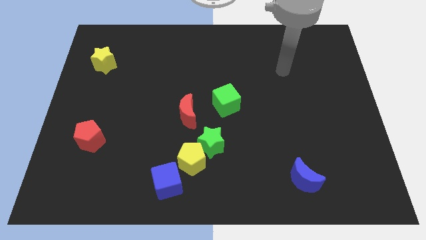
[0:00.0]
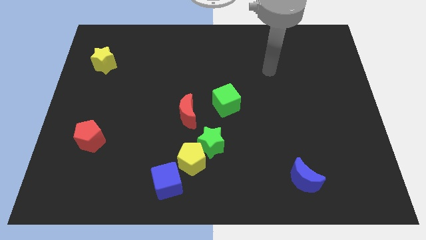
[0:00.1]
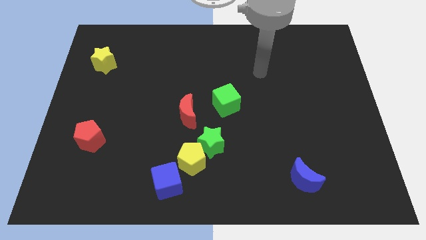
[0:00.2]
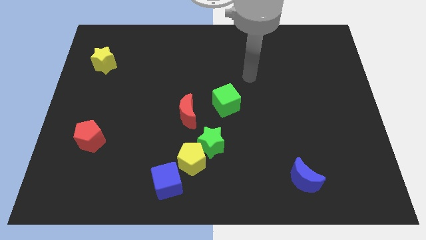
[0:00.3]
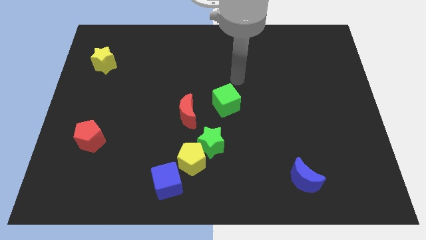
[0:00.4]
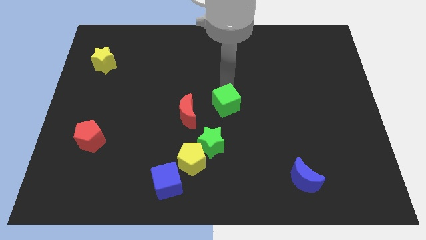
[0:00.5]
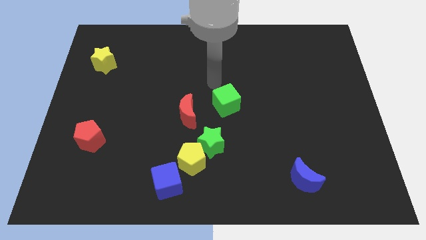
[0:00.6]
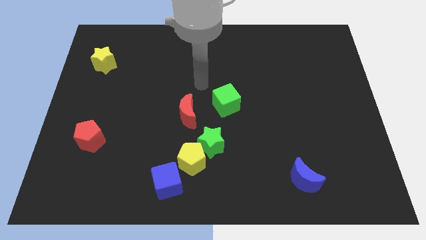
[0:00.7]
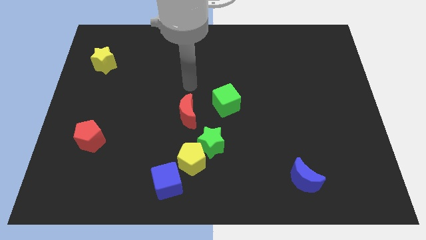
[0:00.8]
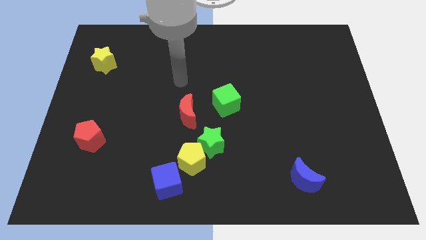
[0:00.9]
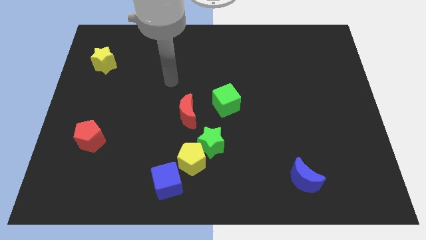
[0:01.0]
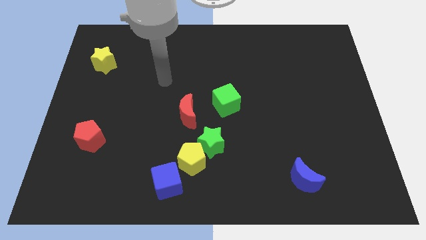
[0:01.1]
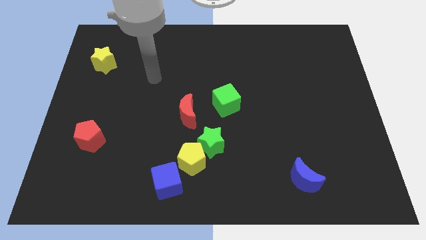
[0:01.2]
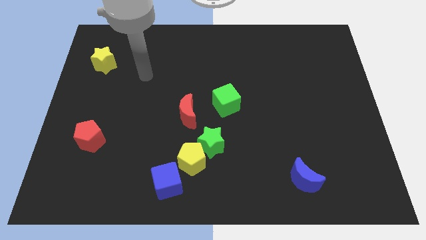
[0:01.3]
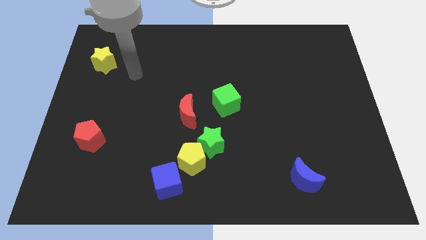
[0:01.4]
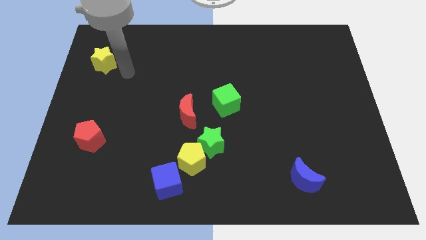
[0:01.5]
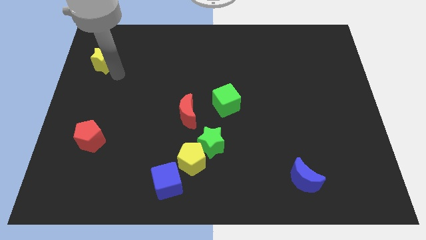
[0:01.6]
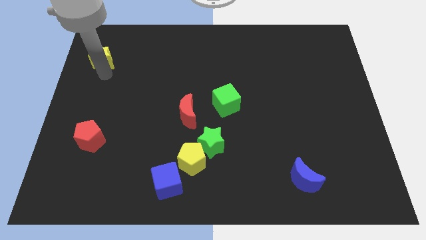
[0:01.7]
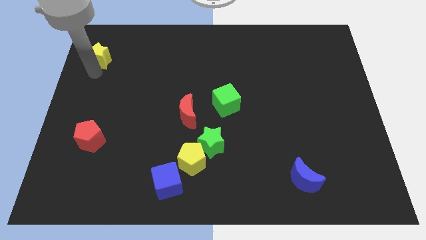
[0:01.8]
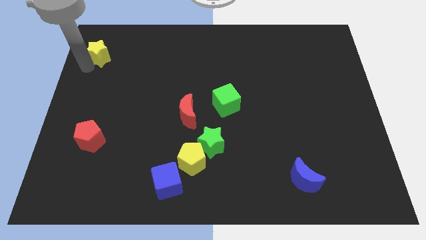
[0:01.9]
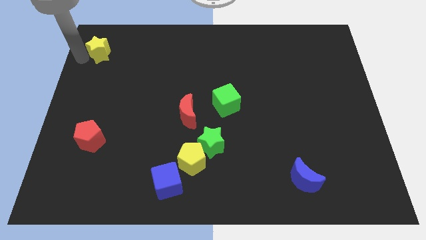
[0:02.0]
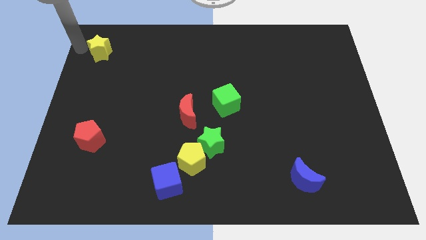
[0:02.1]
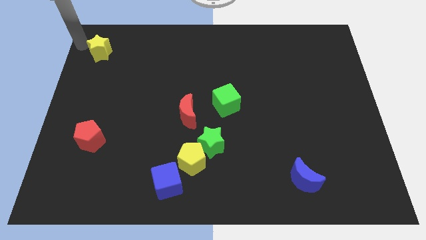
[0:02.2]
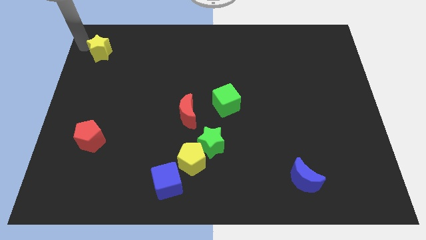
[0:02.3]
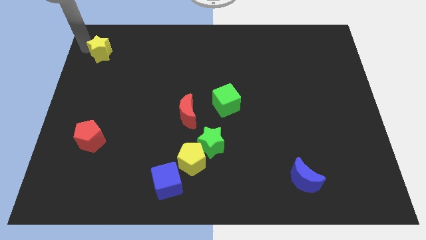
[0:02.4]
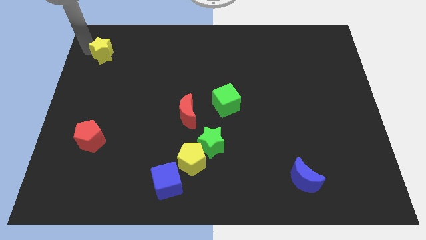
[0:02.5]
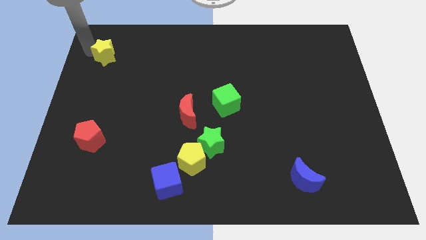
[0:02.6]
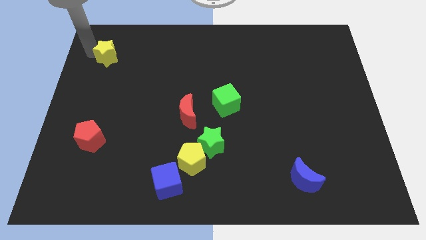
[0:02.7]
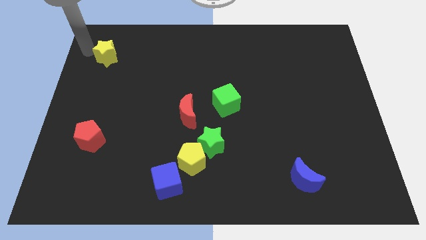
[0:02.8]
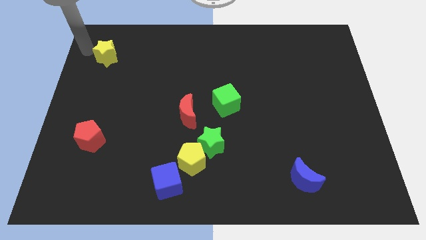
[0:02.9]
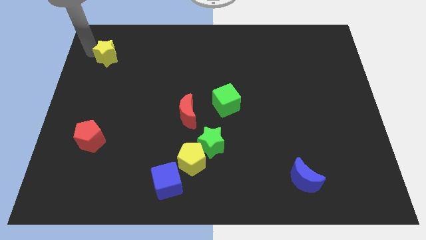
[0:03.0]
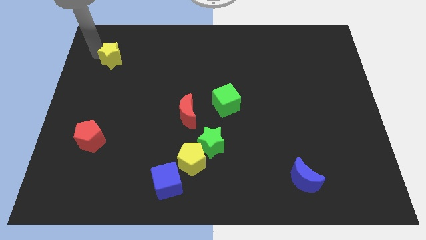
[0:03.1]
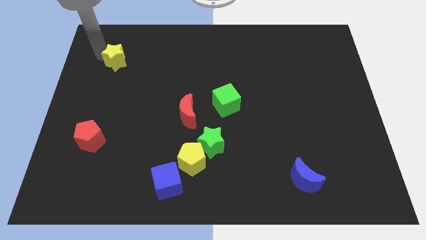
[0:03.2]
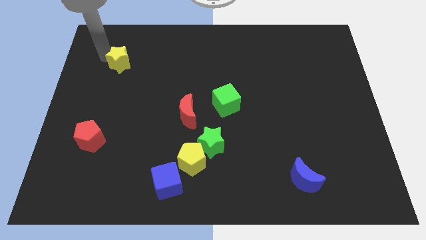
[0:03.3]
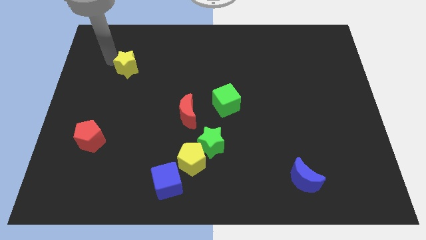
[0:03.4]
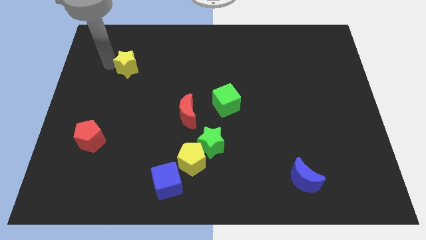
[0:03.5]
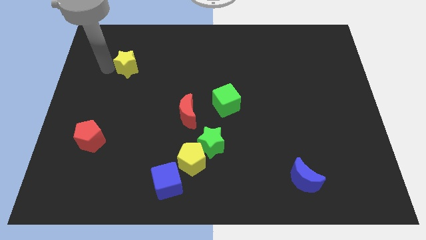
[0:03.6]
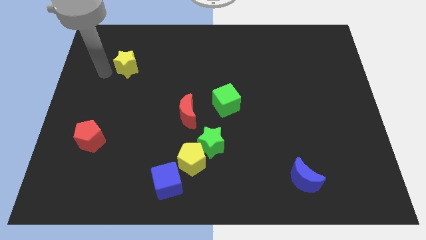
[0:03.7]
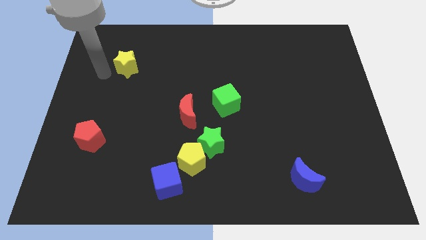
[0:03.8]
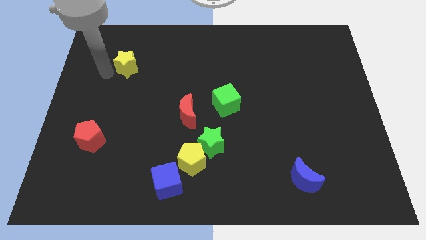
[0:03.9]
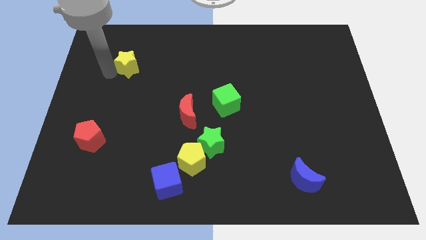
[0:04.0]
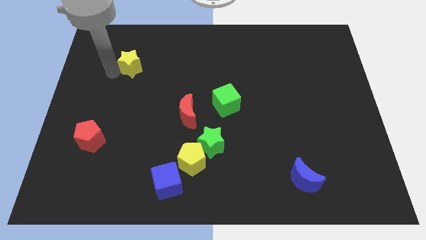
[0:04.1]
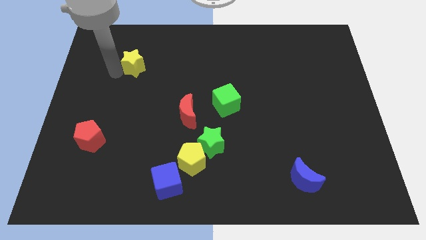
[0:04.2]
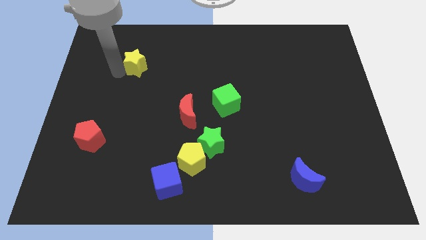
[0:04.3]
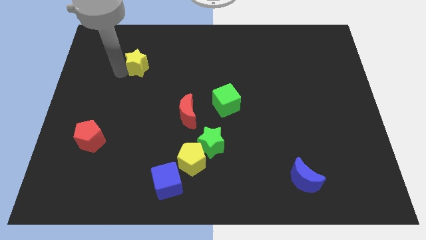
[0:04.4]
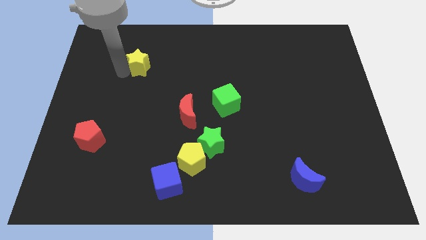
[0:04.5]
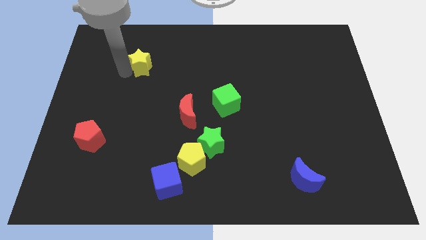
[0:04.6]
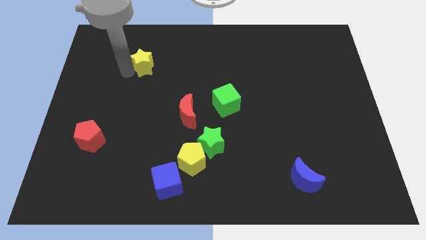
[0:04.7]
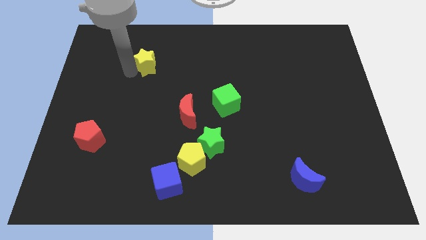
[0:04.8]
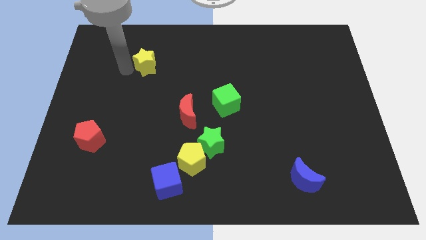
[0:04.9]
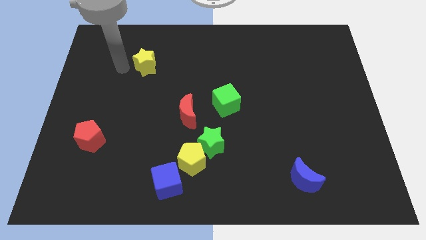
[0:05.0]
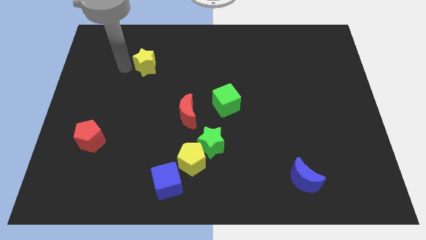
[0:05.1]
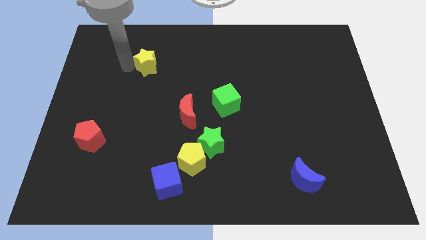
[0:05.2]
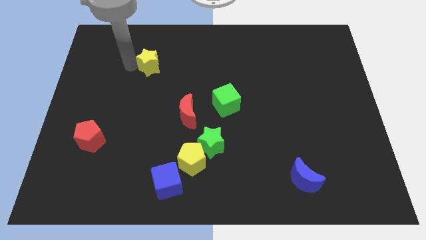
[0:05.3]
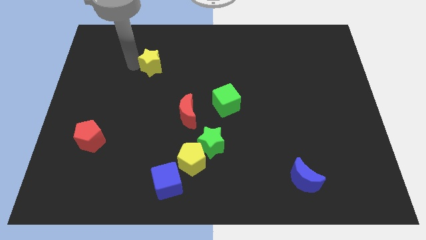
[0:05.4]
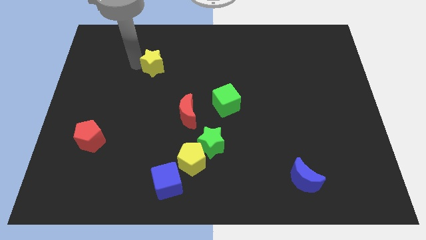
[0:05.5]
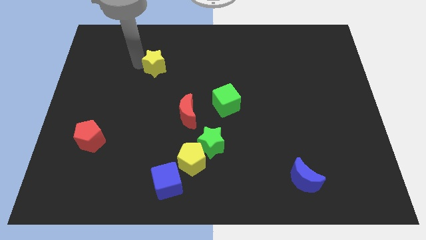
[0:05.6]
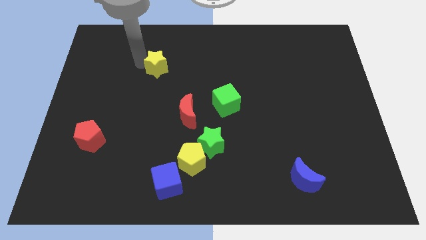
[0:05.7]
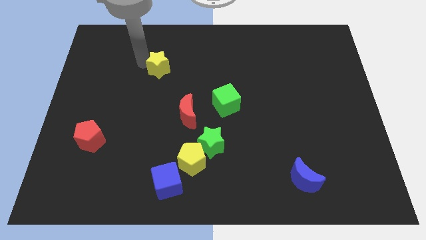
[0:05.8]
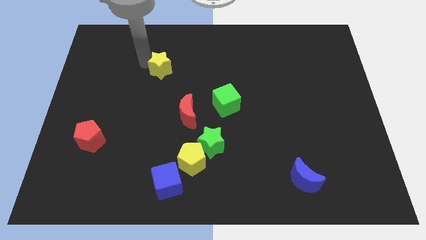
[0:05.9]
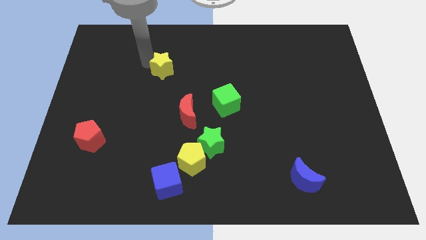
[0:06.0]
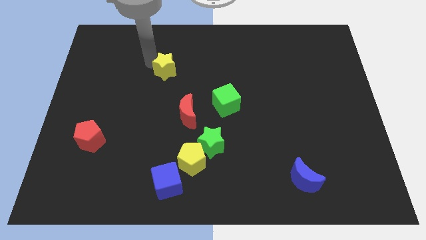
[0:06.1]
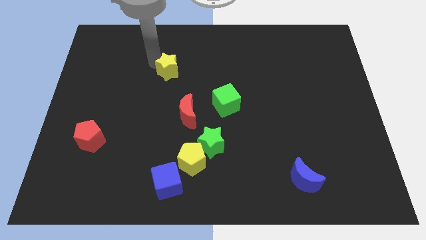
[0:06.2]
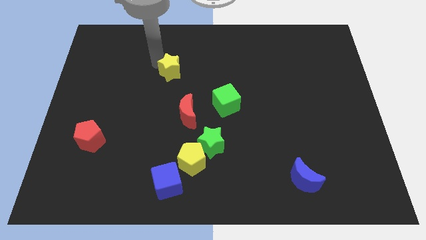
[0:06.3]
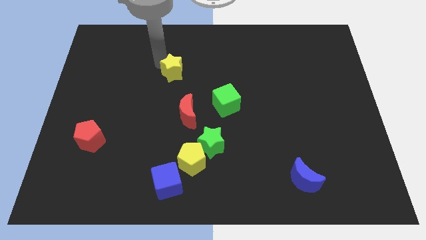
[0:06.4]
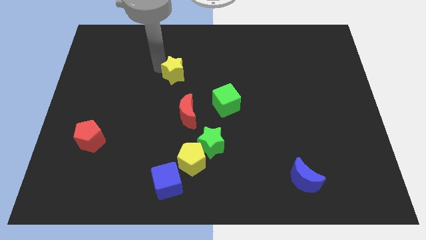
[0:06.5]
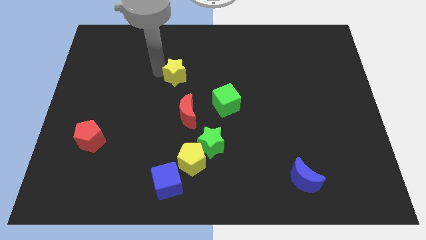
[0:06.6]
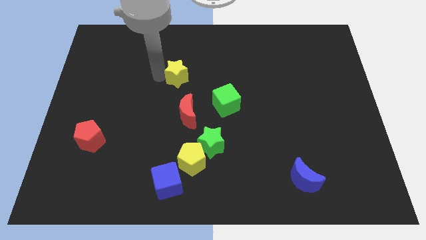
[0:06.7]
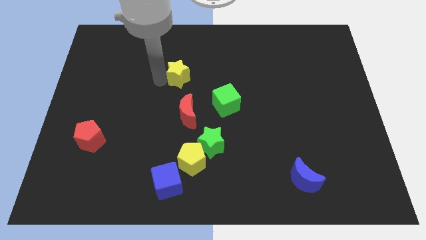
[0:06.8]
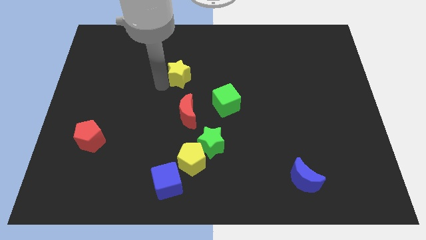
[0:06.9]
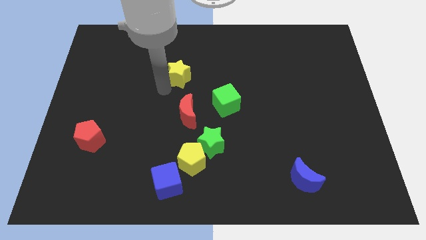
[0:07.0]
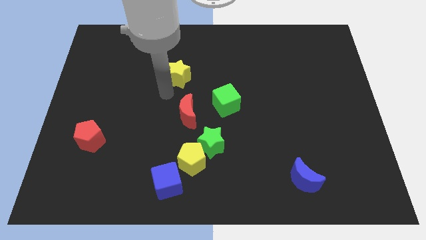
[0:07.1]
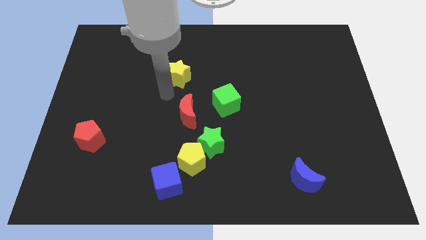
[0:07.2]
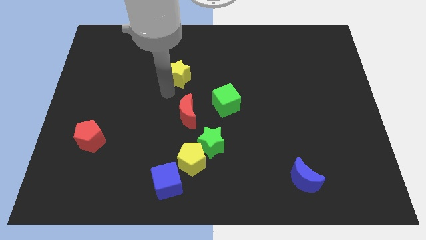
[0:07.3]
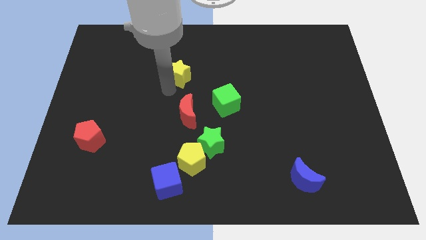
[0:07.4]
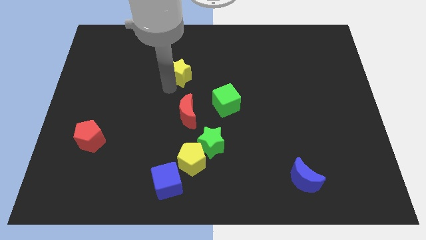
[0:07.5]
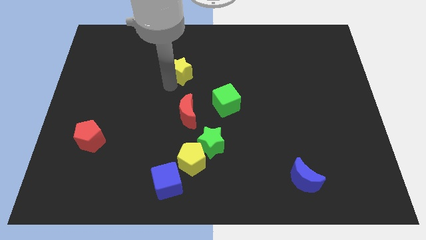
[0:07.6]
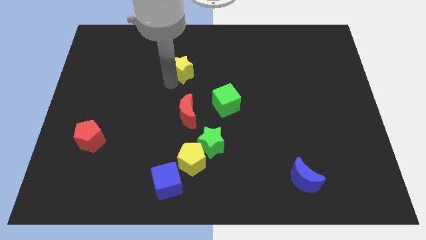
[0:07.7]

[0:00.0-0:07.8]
move the yellow star right

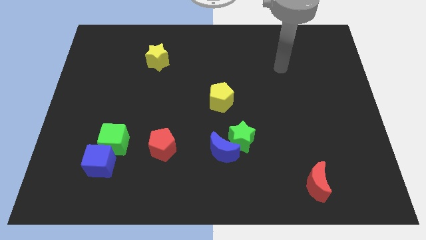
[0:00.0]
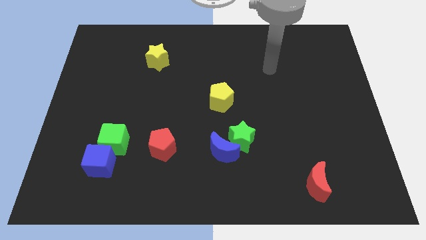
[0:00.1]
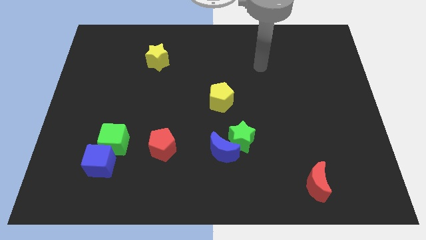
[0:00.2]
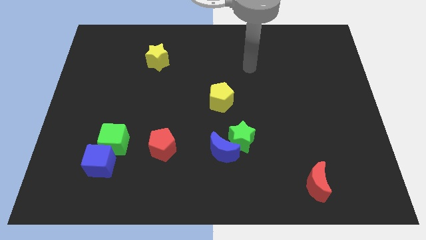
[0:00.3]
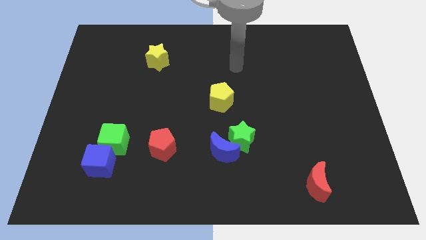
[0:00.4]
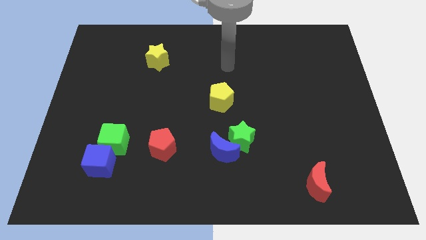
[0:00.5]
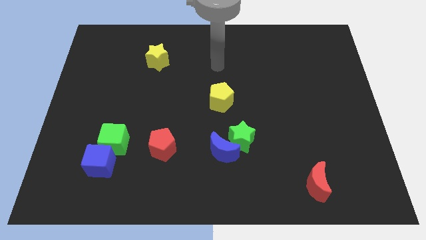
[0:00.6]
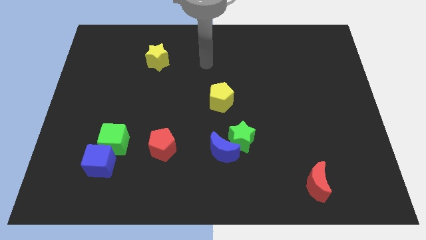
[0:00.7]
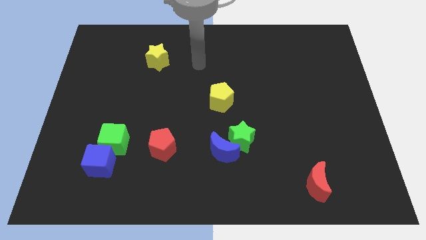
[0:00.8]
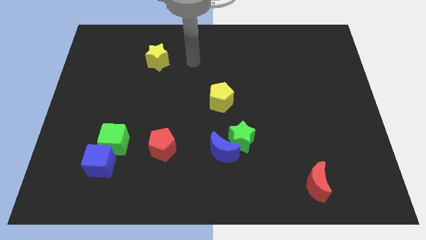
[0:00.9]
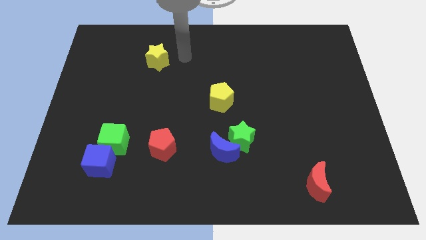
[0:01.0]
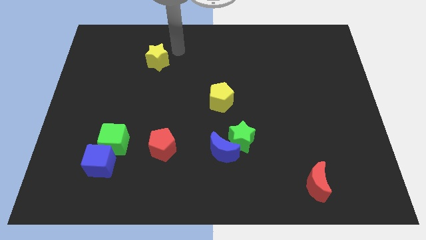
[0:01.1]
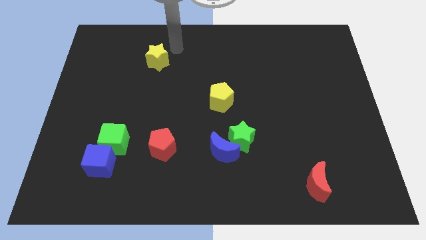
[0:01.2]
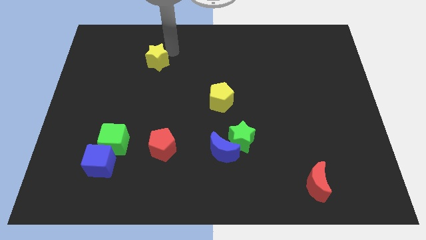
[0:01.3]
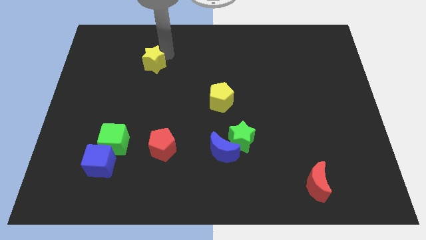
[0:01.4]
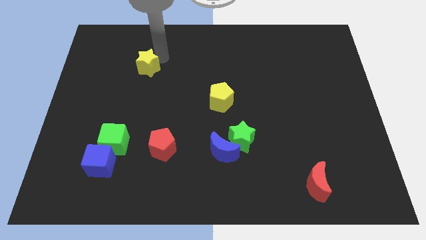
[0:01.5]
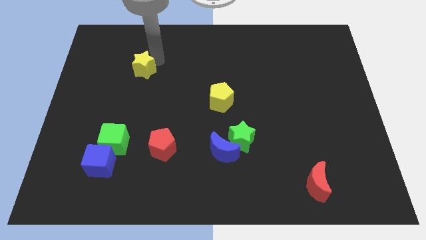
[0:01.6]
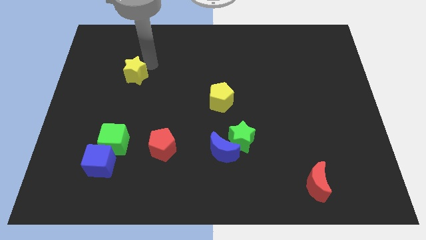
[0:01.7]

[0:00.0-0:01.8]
slightly push the yellow star down and then left
